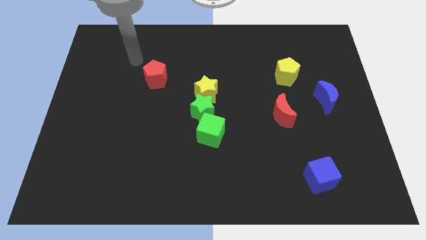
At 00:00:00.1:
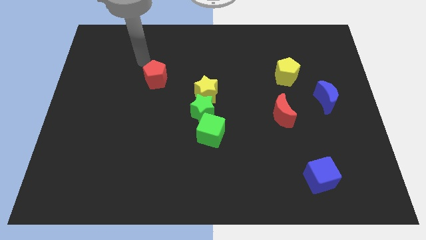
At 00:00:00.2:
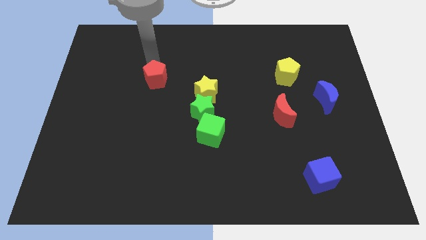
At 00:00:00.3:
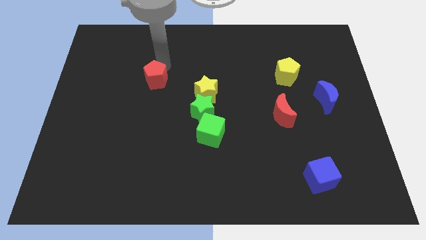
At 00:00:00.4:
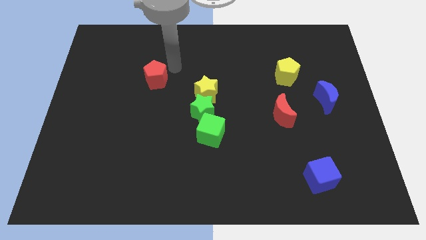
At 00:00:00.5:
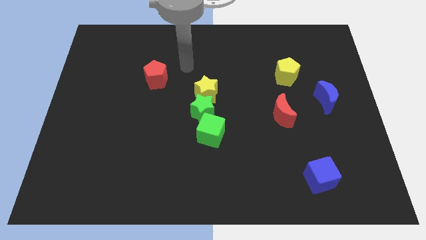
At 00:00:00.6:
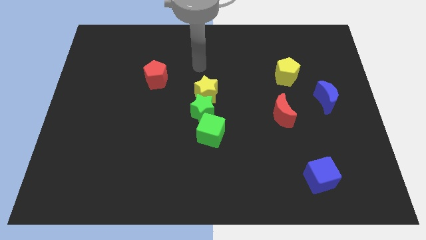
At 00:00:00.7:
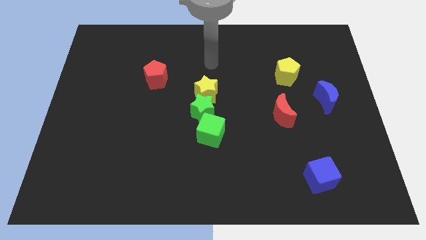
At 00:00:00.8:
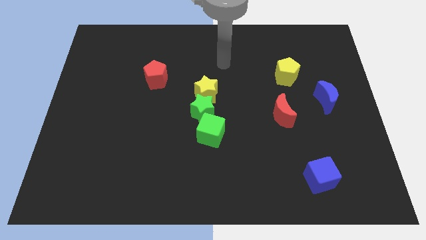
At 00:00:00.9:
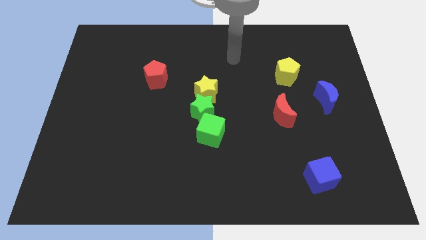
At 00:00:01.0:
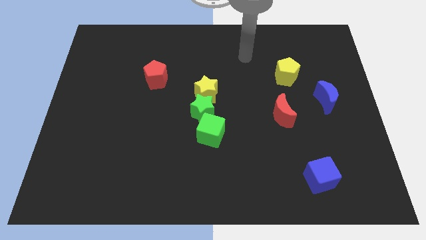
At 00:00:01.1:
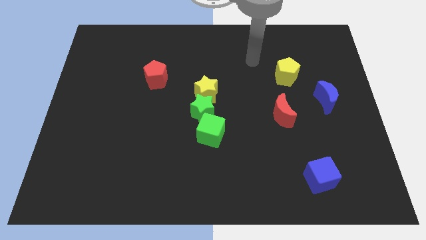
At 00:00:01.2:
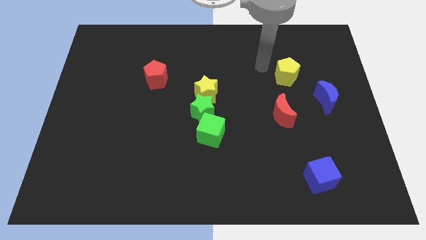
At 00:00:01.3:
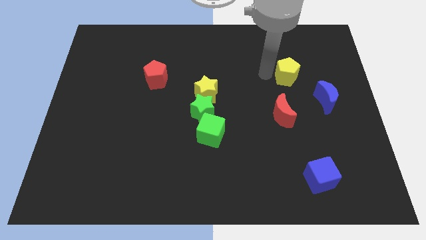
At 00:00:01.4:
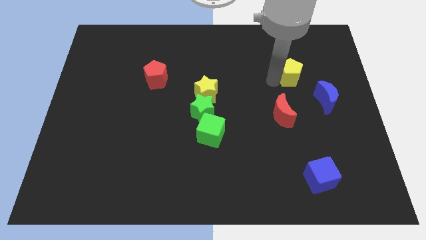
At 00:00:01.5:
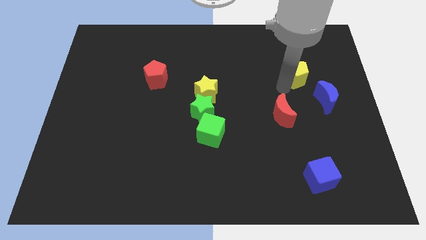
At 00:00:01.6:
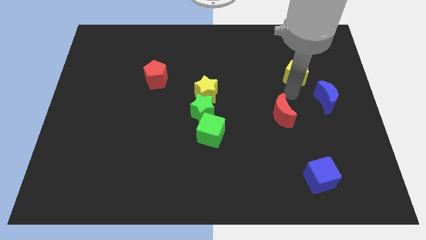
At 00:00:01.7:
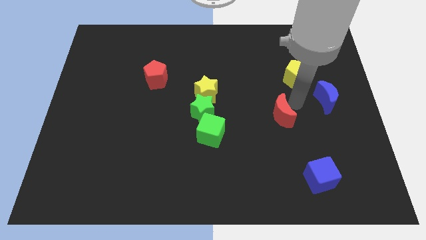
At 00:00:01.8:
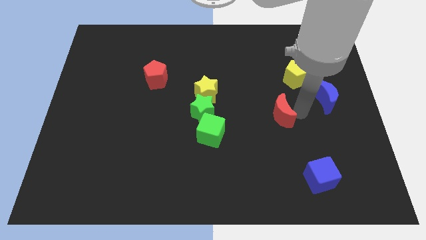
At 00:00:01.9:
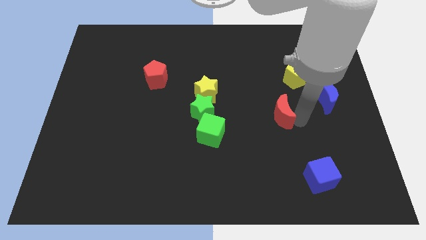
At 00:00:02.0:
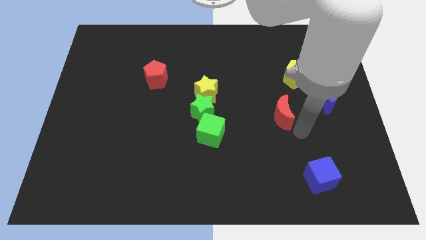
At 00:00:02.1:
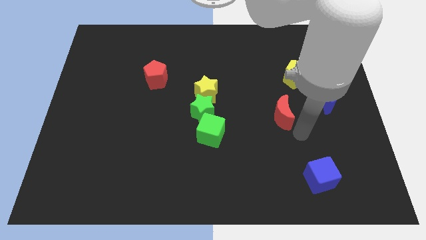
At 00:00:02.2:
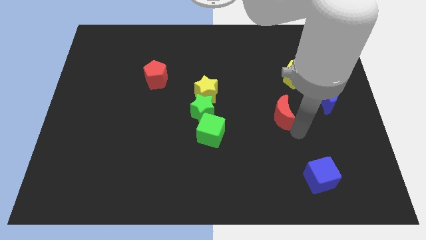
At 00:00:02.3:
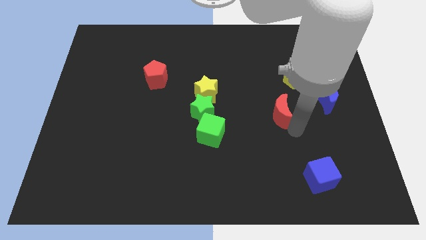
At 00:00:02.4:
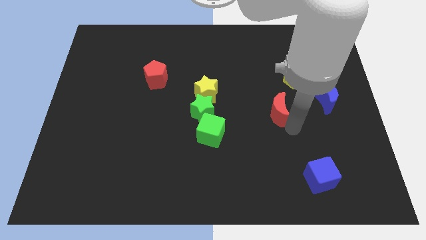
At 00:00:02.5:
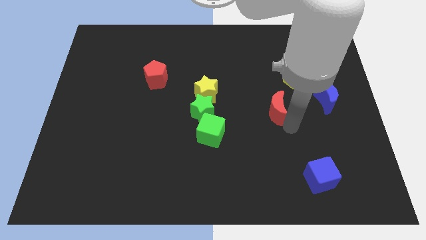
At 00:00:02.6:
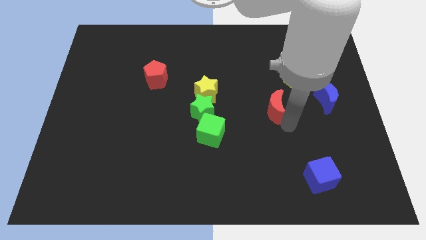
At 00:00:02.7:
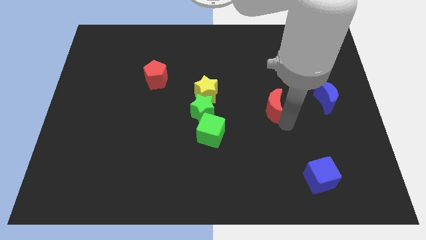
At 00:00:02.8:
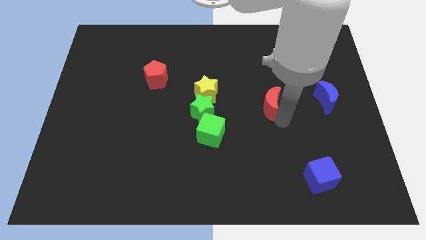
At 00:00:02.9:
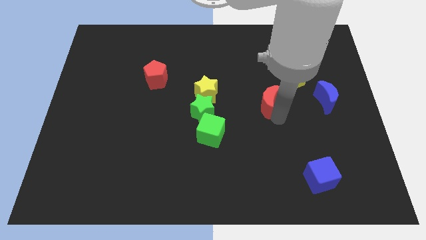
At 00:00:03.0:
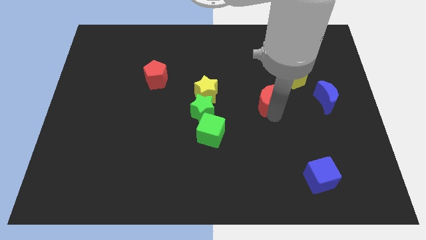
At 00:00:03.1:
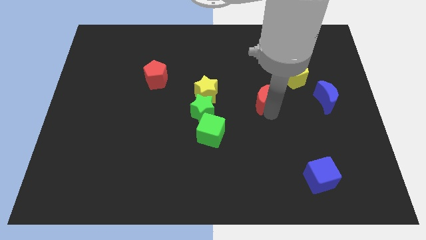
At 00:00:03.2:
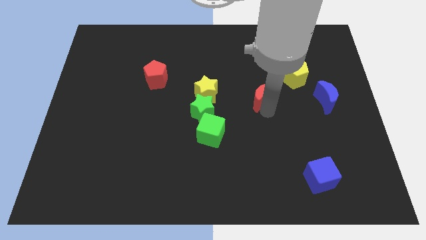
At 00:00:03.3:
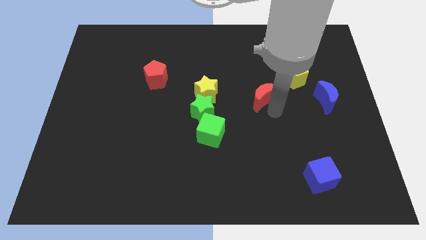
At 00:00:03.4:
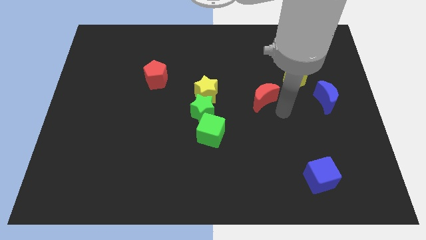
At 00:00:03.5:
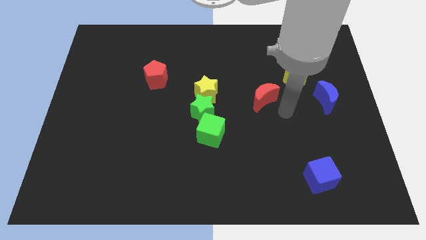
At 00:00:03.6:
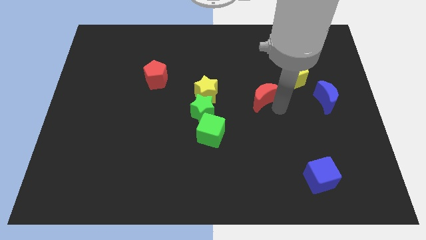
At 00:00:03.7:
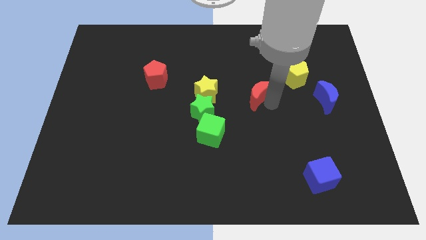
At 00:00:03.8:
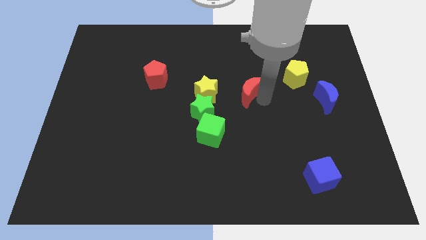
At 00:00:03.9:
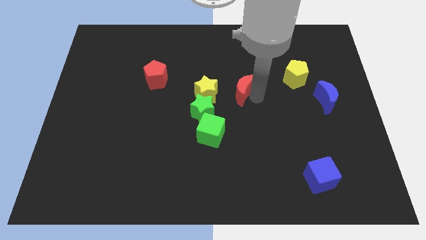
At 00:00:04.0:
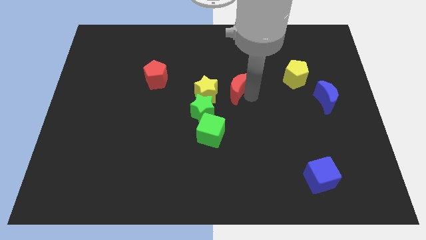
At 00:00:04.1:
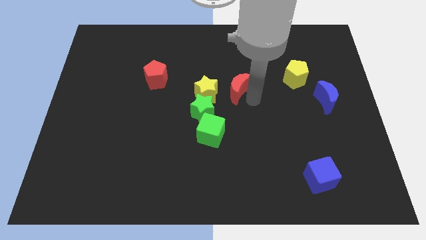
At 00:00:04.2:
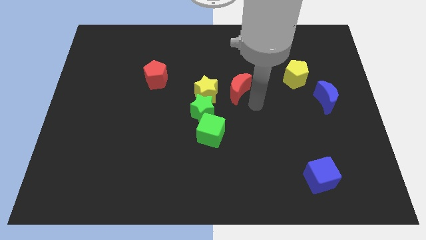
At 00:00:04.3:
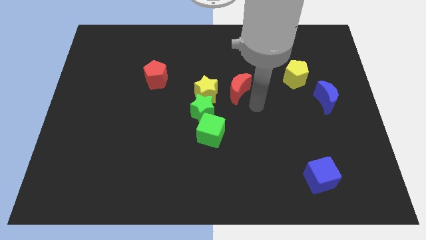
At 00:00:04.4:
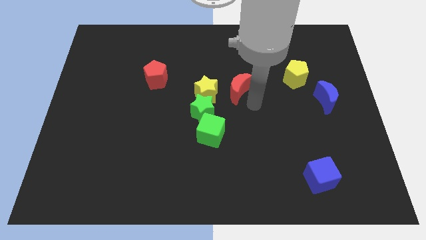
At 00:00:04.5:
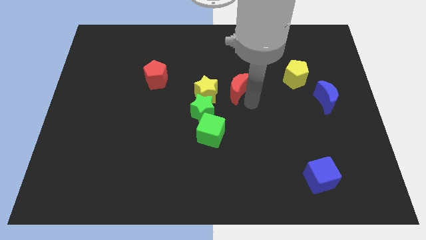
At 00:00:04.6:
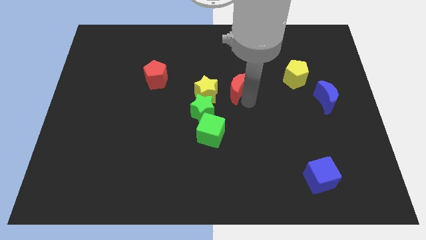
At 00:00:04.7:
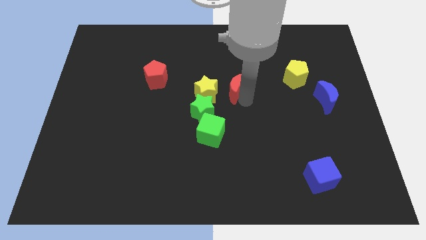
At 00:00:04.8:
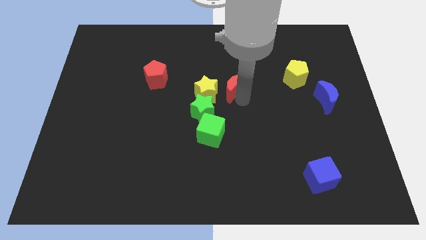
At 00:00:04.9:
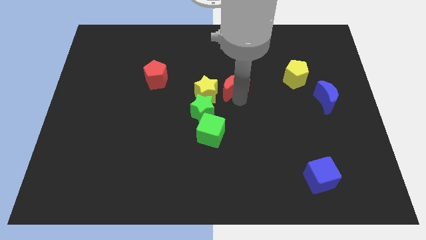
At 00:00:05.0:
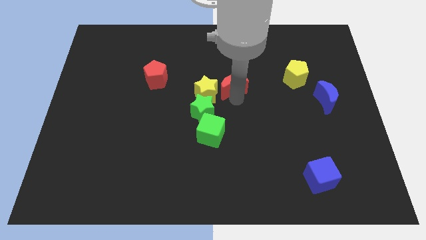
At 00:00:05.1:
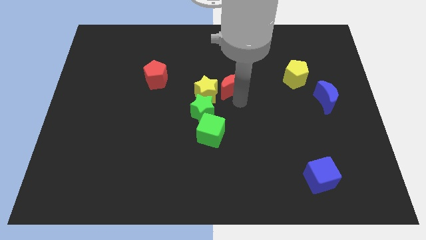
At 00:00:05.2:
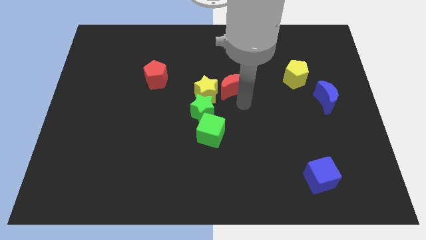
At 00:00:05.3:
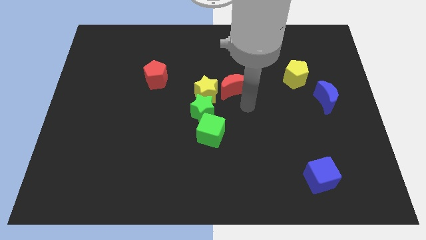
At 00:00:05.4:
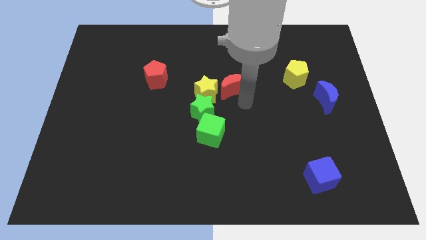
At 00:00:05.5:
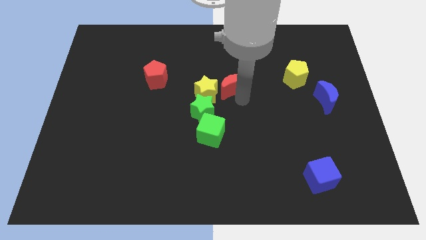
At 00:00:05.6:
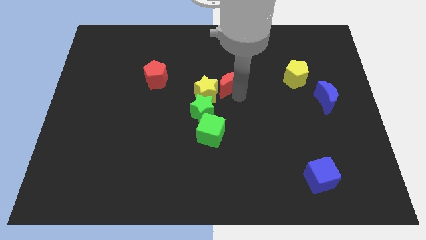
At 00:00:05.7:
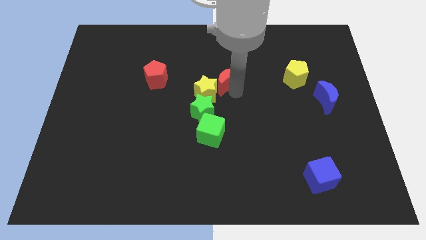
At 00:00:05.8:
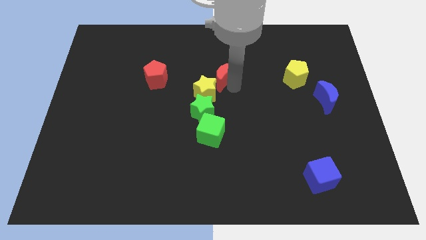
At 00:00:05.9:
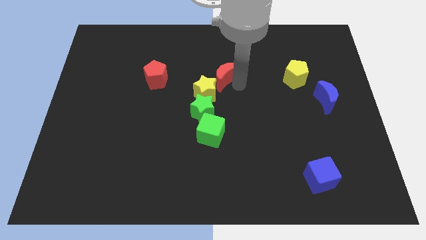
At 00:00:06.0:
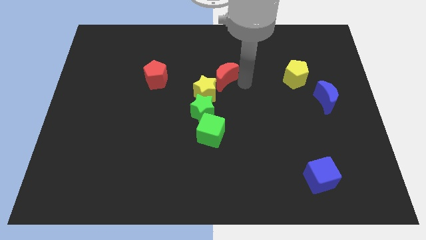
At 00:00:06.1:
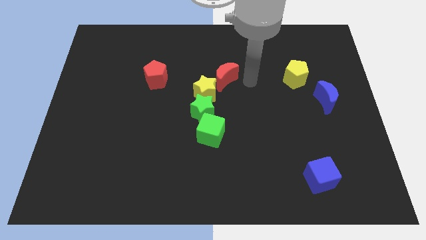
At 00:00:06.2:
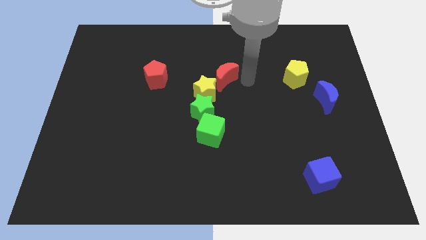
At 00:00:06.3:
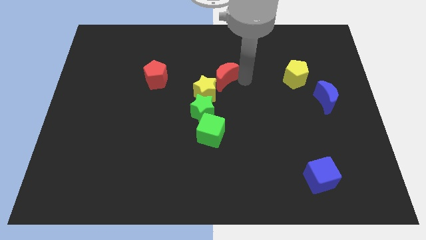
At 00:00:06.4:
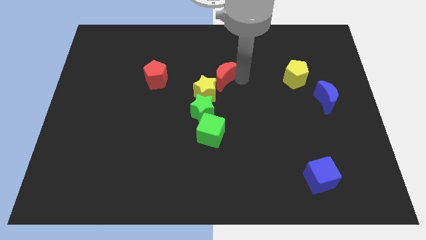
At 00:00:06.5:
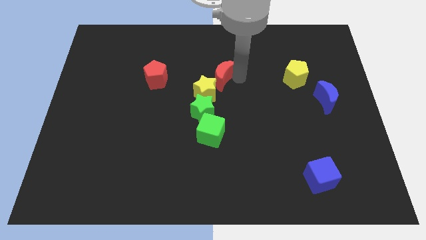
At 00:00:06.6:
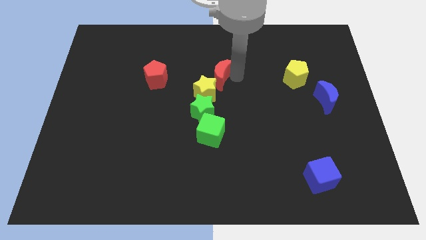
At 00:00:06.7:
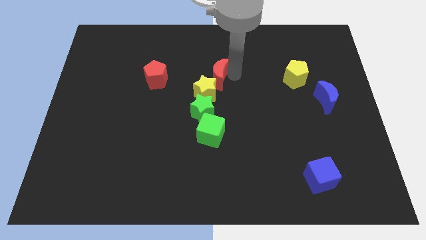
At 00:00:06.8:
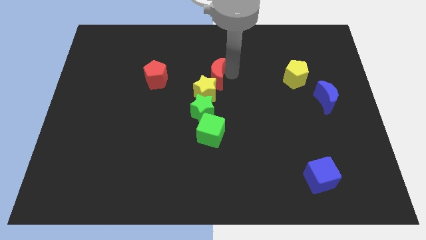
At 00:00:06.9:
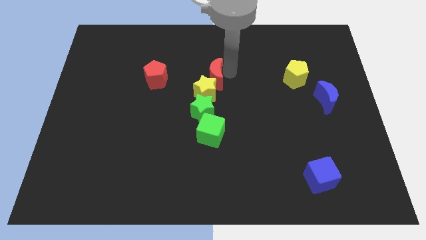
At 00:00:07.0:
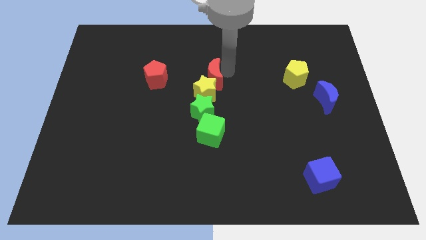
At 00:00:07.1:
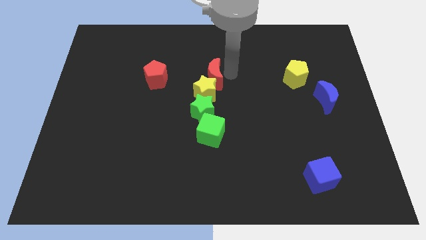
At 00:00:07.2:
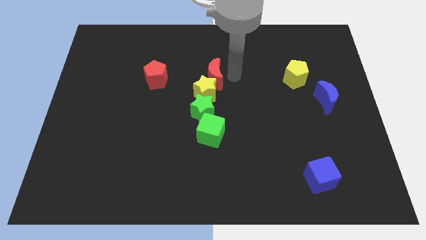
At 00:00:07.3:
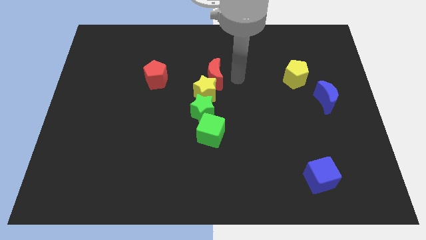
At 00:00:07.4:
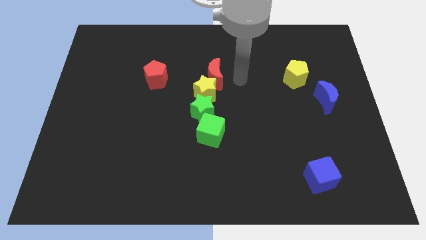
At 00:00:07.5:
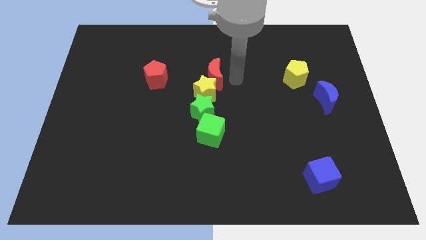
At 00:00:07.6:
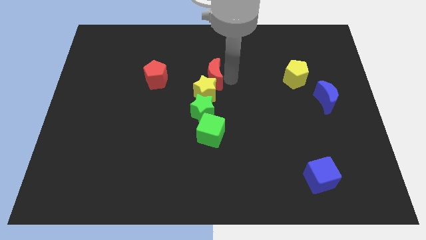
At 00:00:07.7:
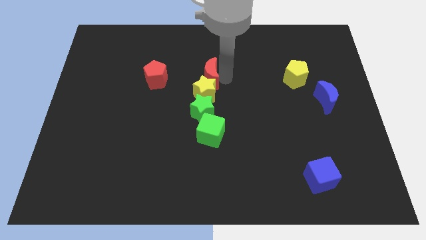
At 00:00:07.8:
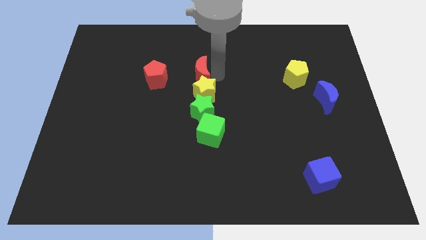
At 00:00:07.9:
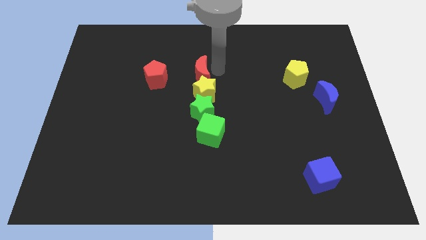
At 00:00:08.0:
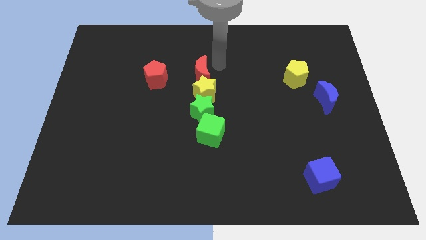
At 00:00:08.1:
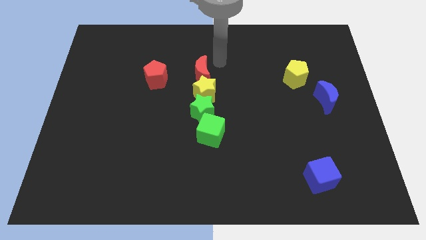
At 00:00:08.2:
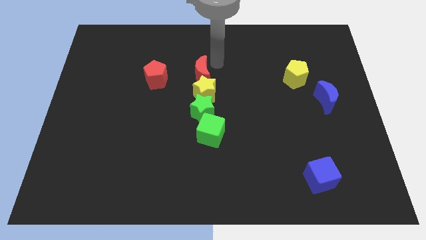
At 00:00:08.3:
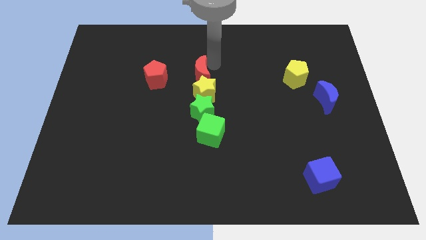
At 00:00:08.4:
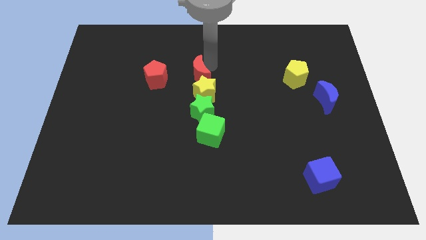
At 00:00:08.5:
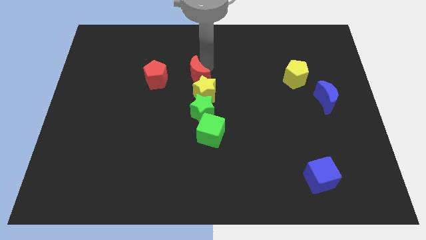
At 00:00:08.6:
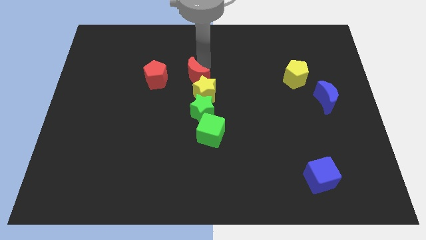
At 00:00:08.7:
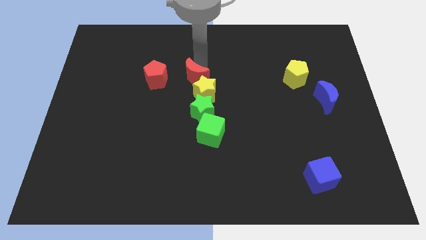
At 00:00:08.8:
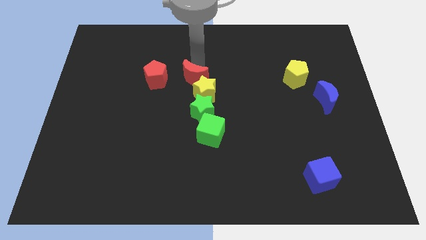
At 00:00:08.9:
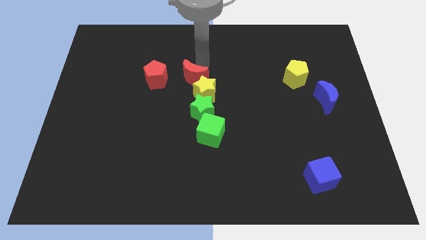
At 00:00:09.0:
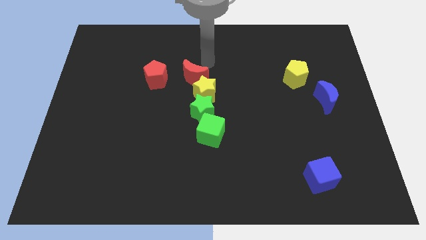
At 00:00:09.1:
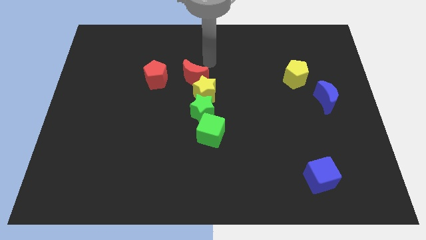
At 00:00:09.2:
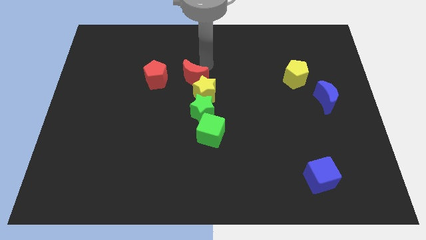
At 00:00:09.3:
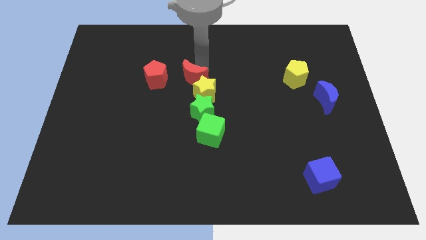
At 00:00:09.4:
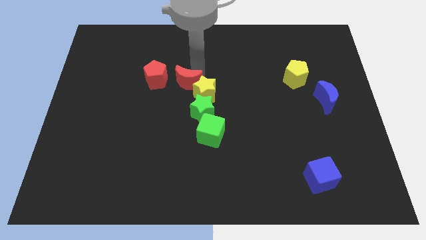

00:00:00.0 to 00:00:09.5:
slide the red moon to the bottom right side of the red pentagon
